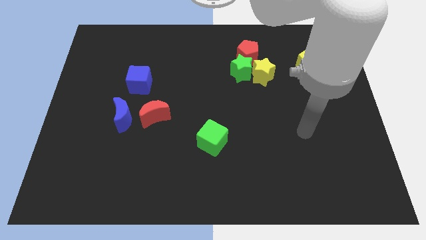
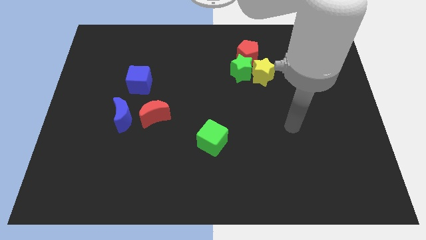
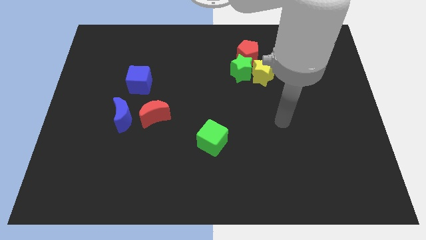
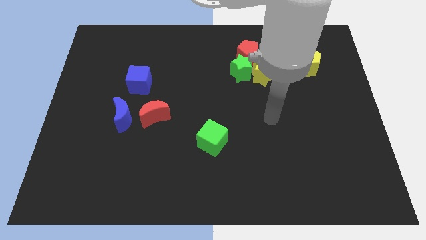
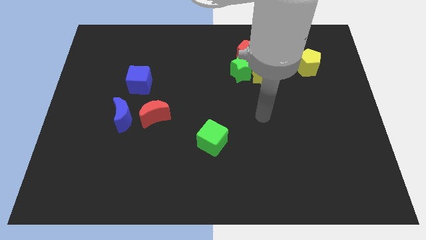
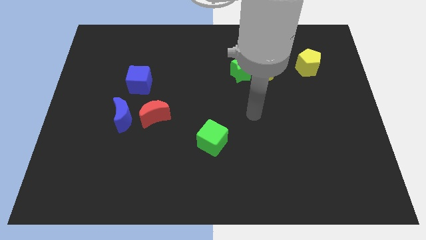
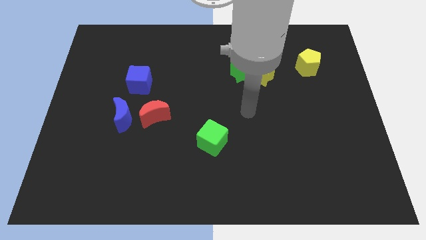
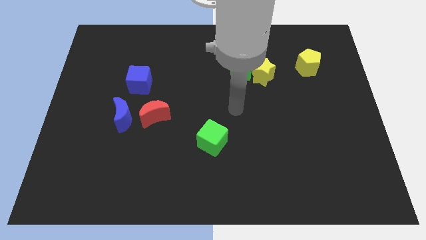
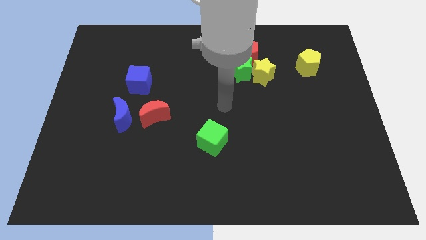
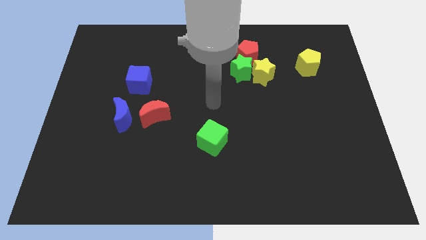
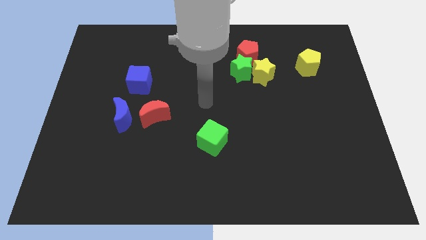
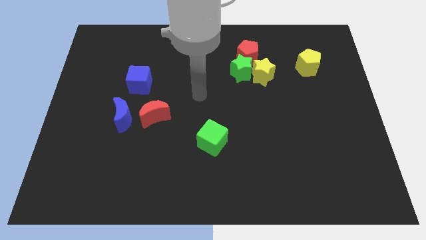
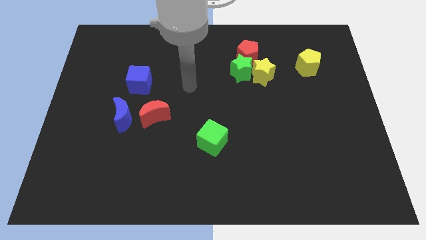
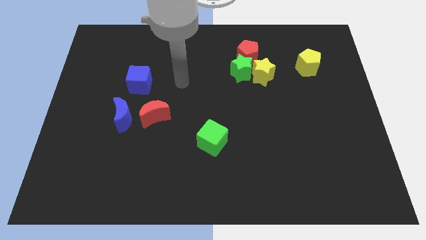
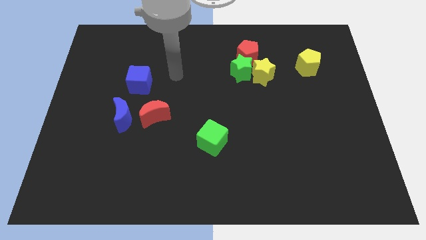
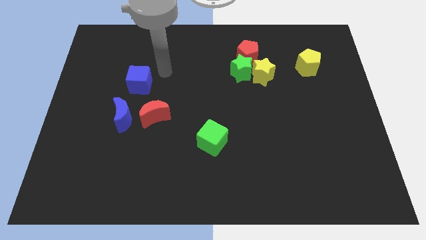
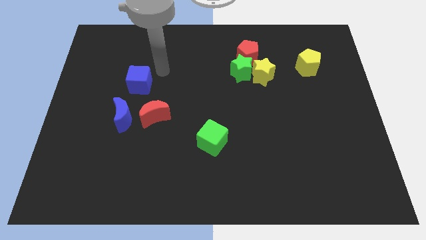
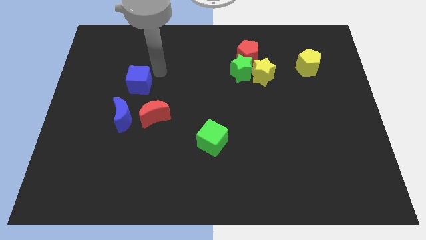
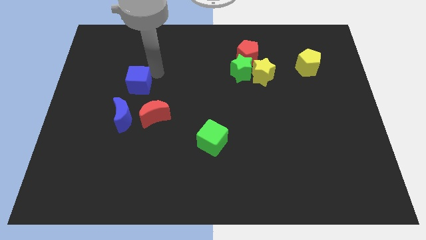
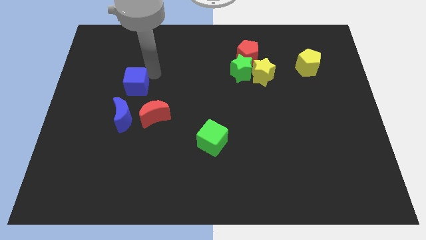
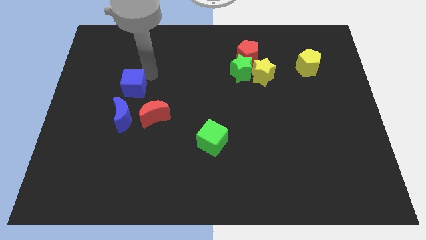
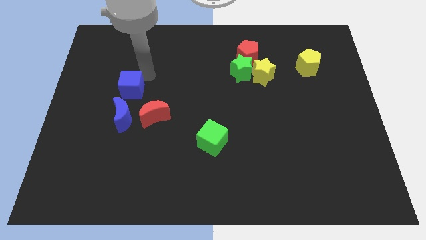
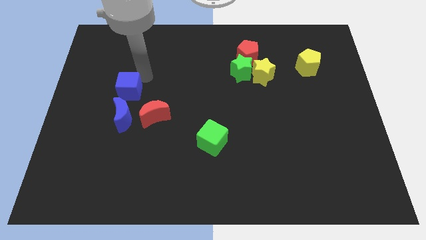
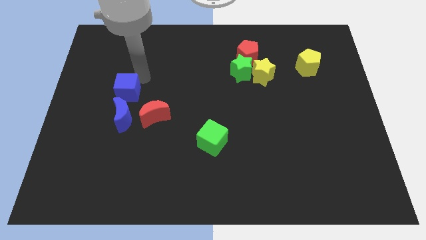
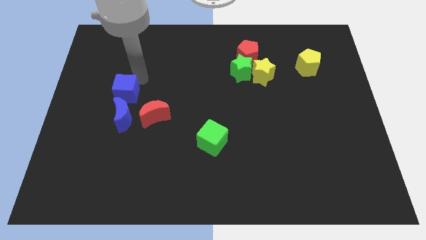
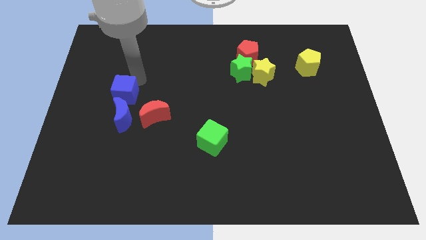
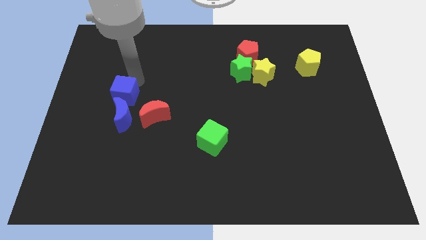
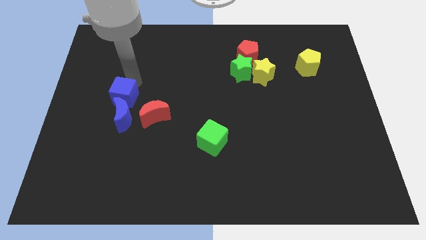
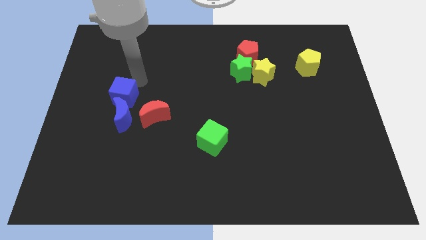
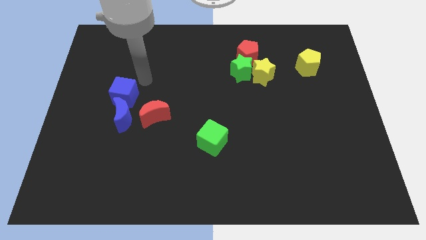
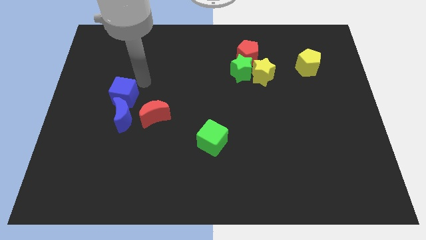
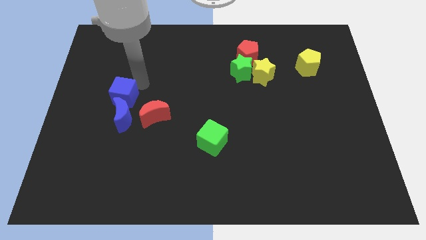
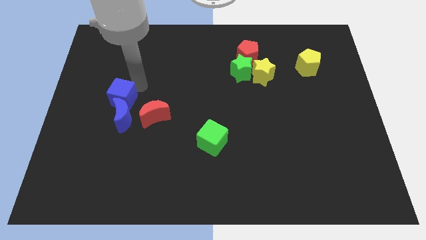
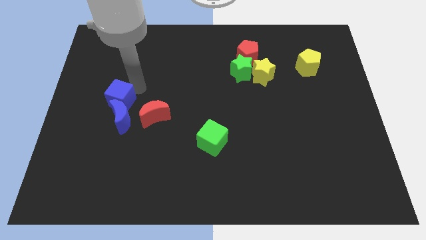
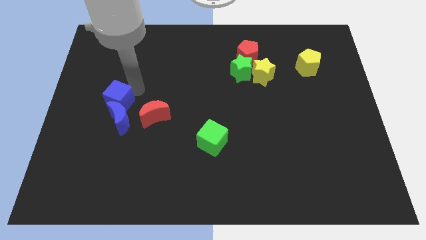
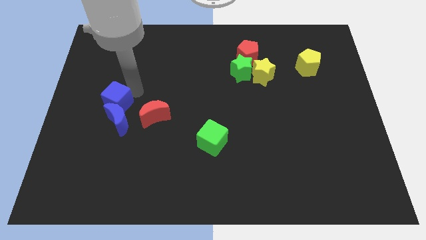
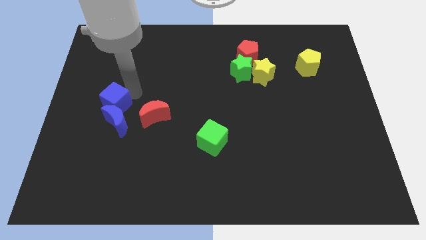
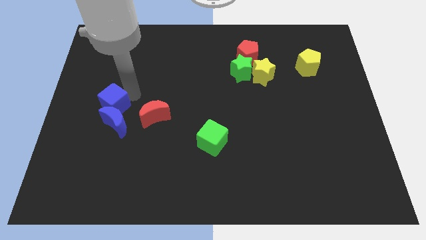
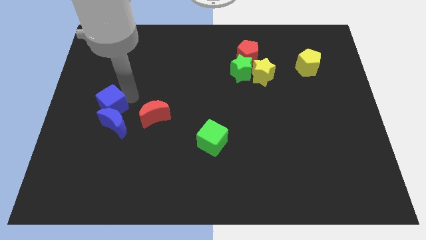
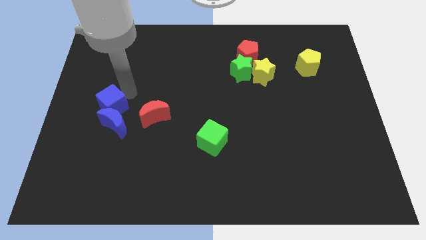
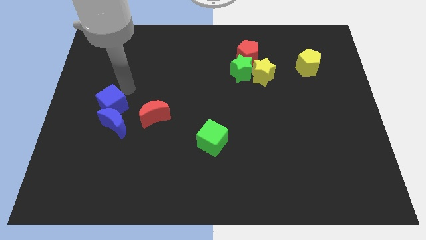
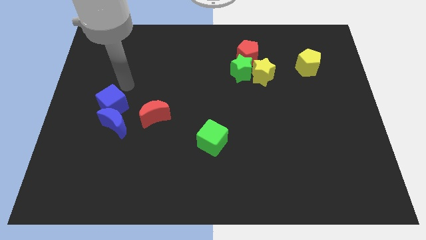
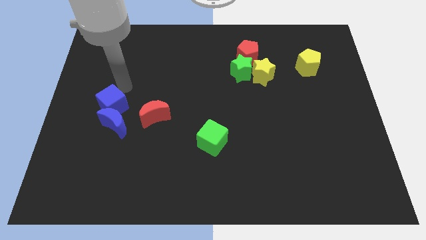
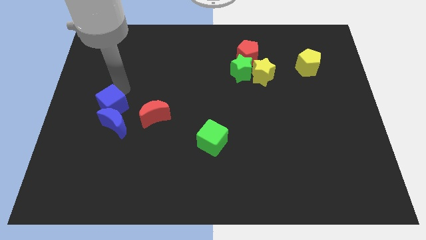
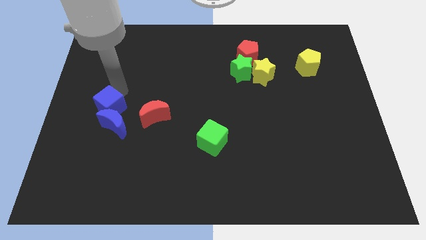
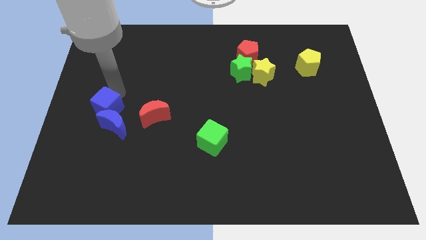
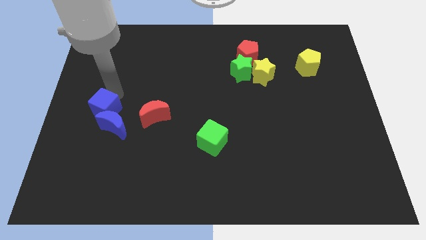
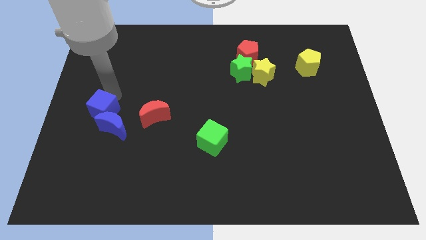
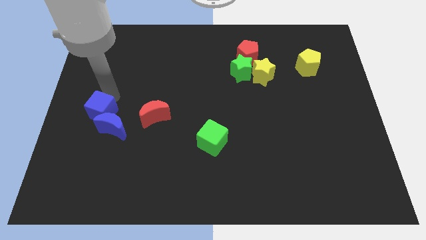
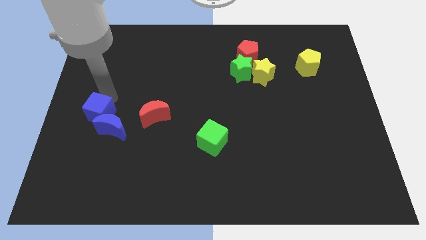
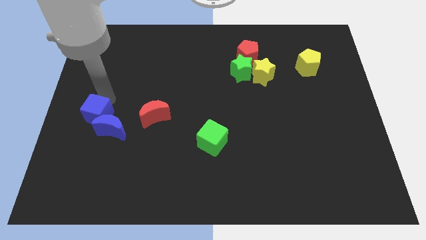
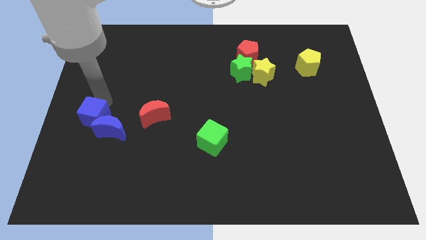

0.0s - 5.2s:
push the blue cube a bit downwards

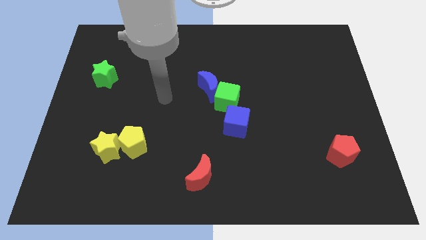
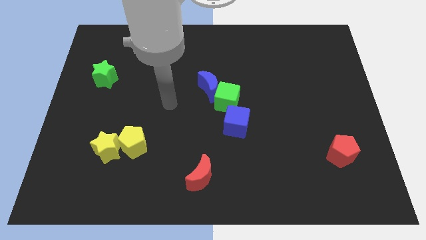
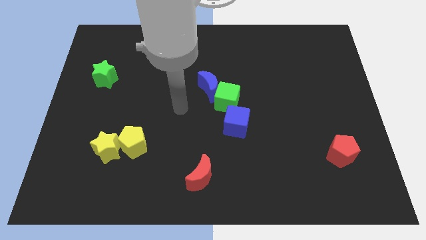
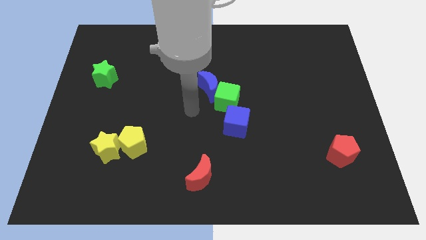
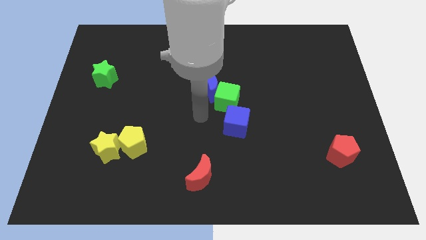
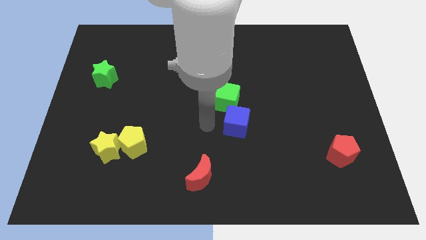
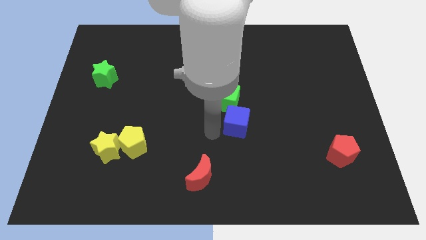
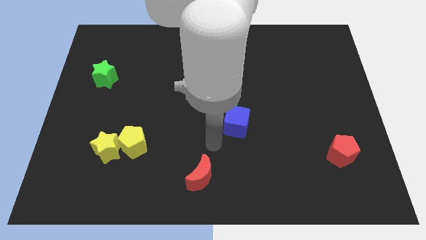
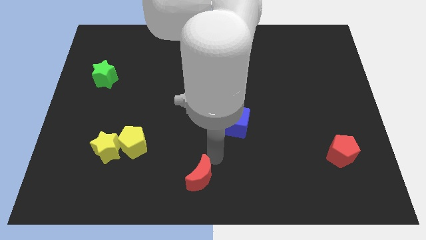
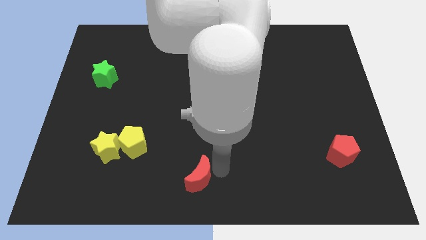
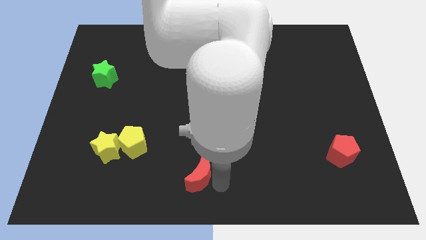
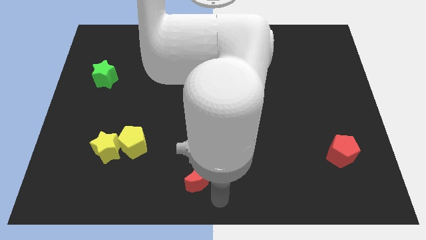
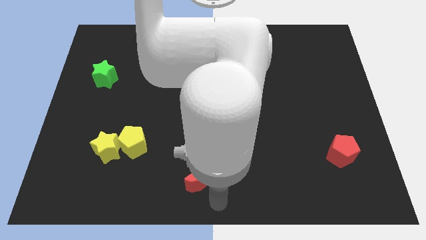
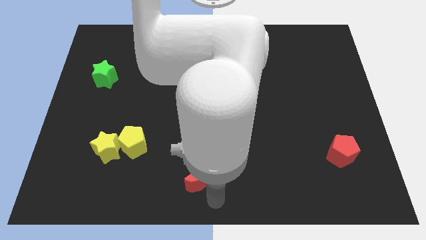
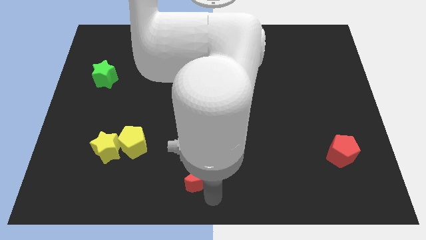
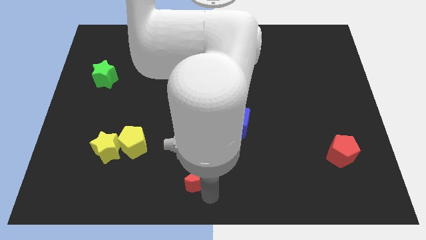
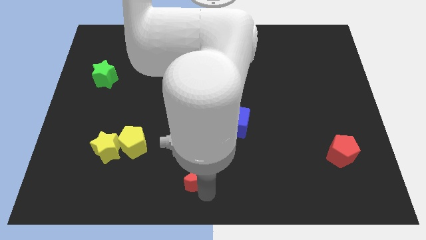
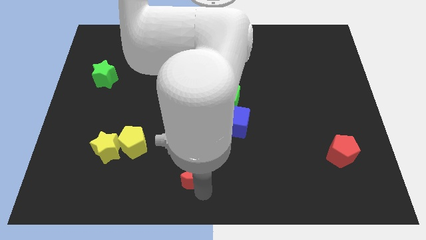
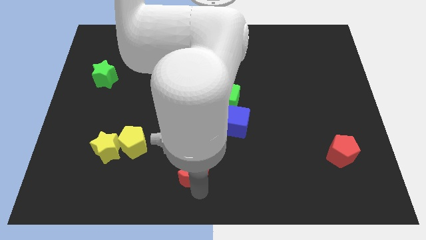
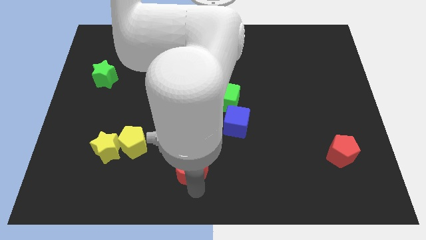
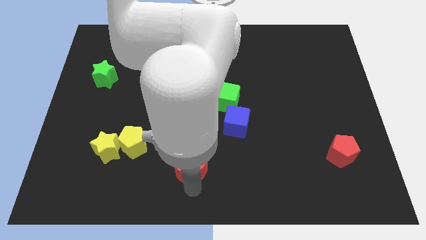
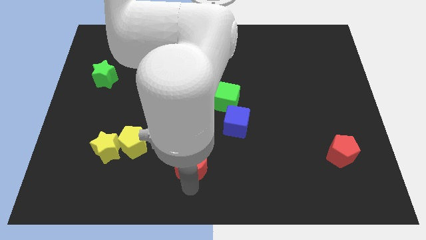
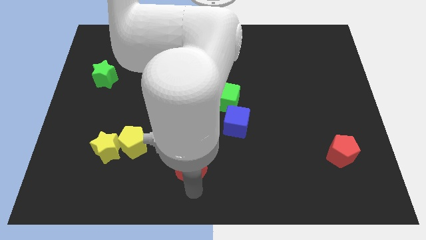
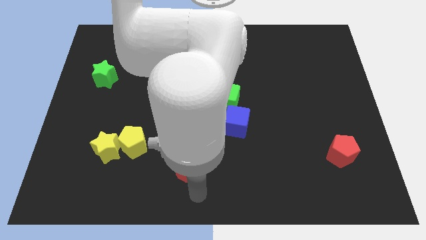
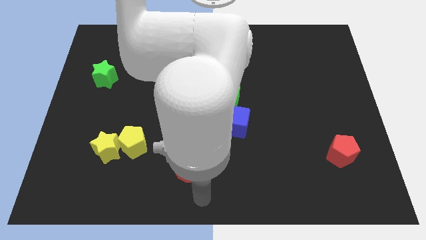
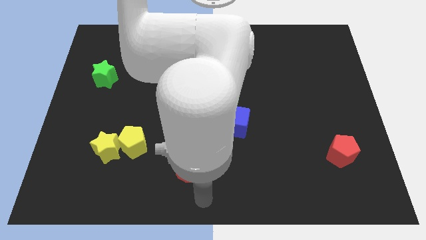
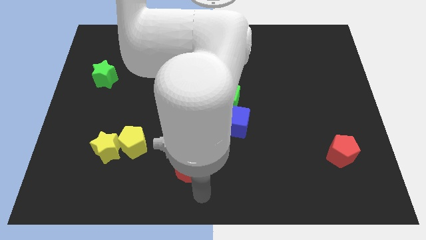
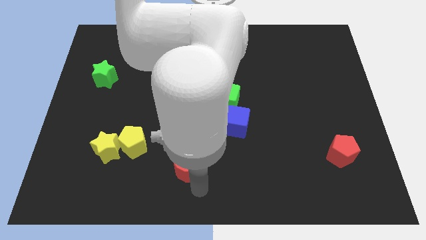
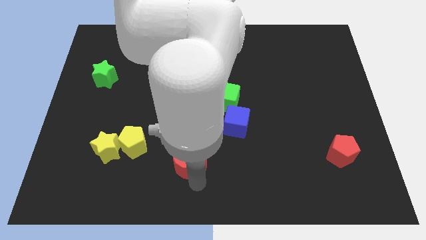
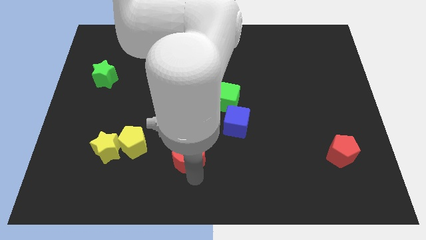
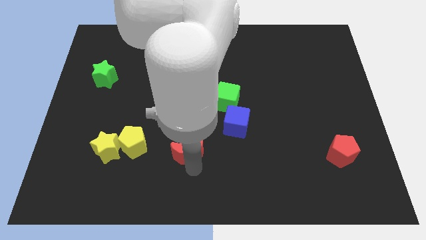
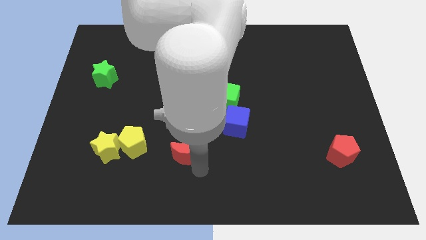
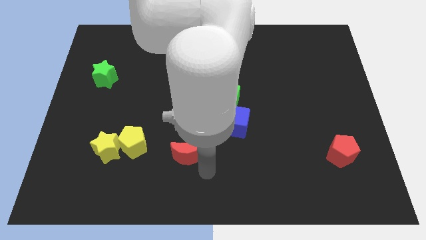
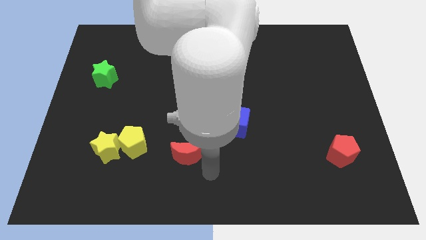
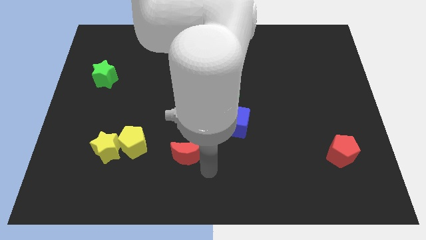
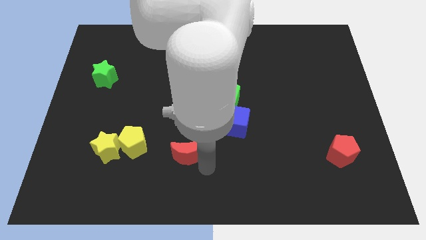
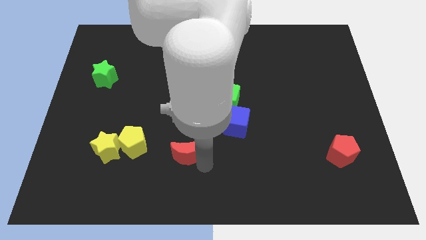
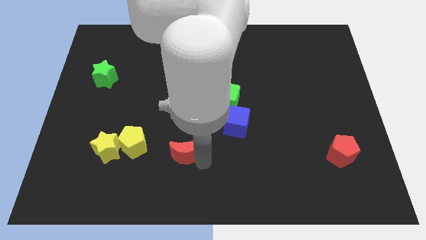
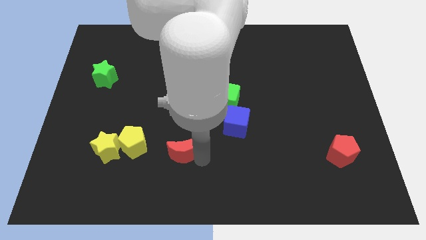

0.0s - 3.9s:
move the red moon a little bit upwards and left diagonally
